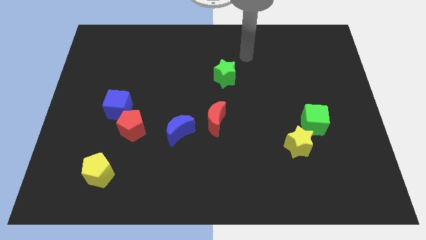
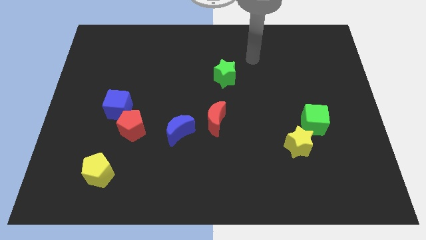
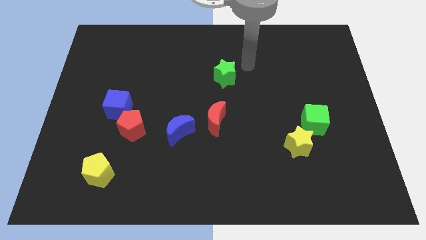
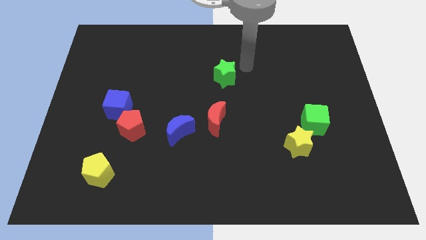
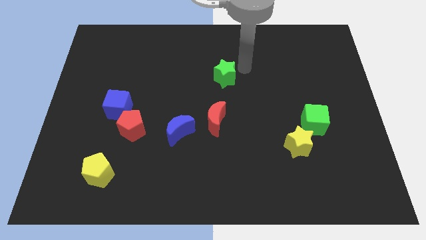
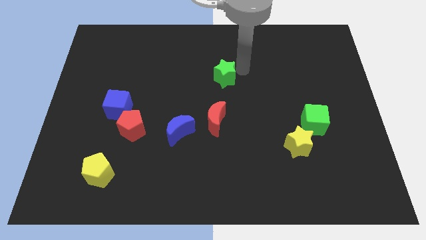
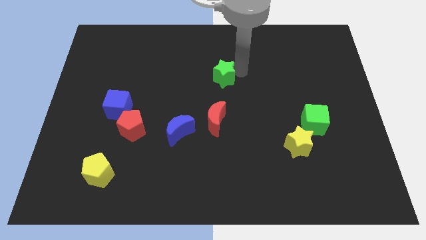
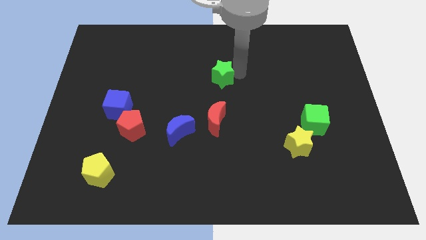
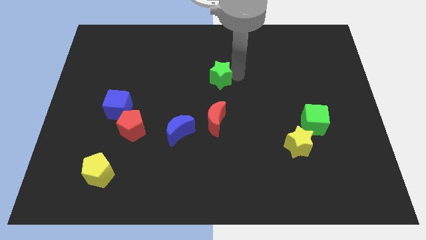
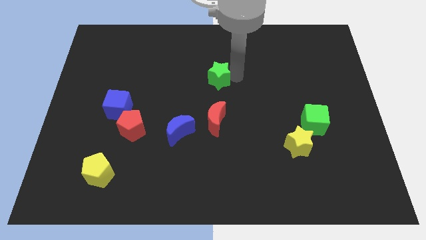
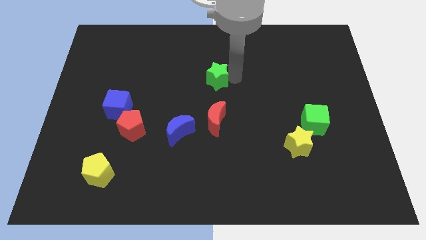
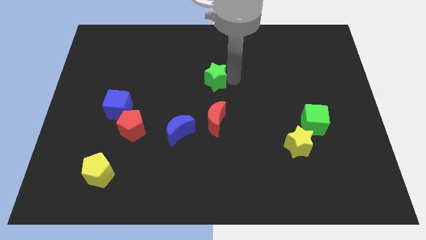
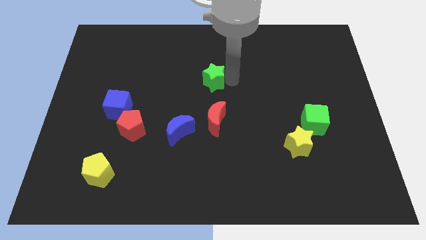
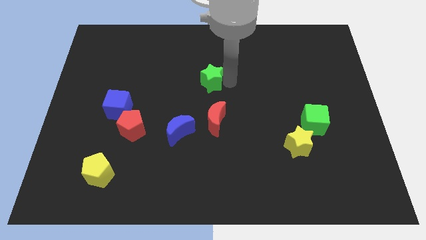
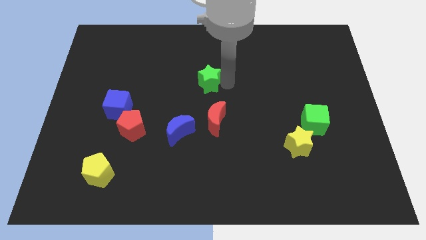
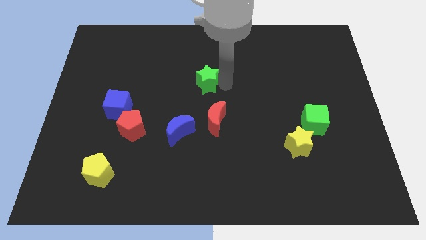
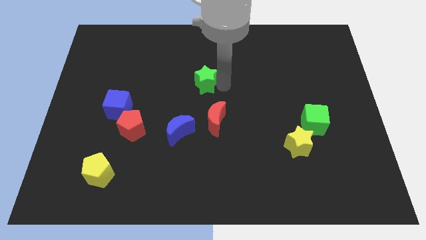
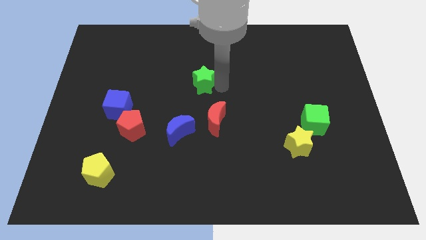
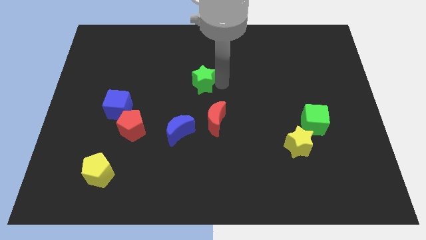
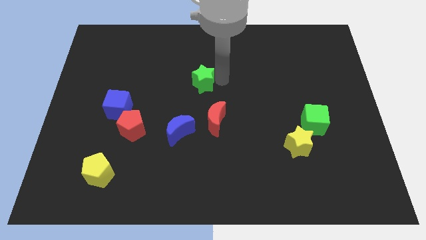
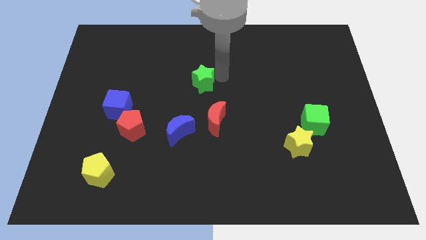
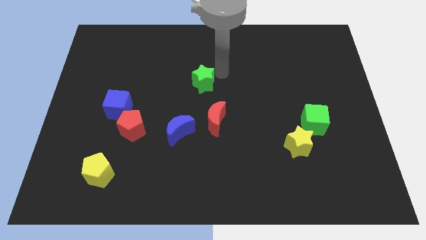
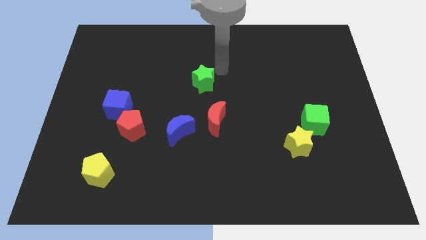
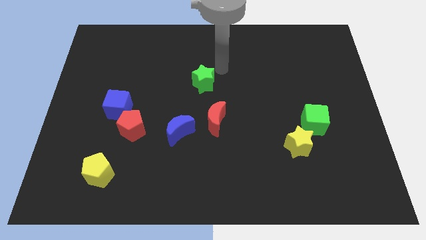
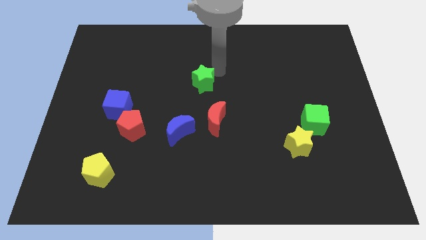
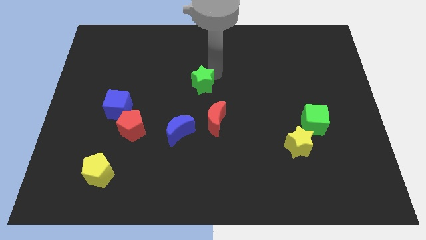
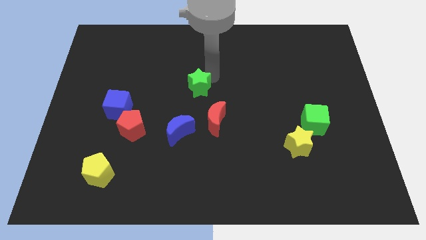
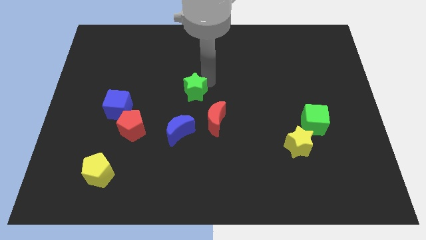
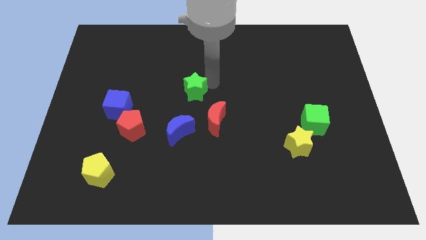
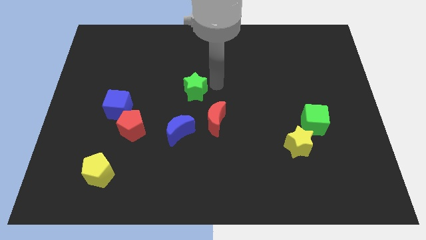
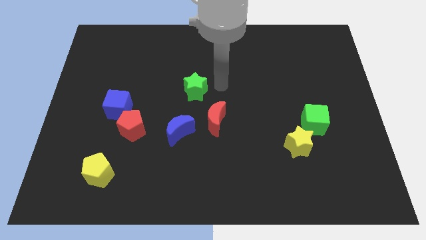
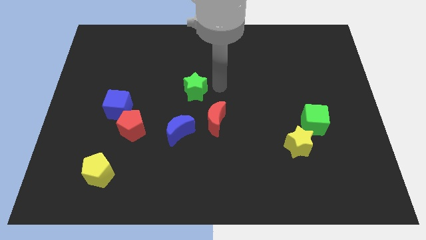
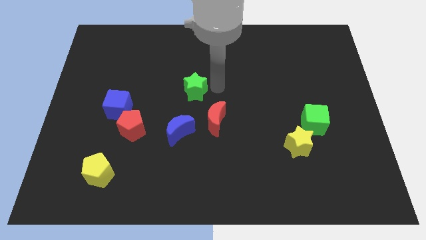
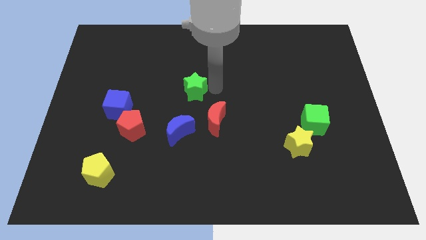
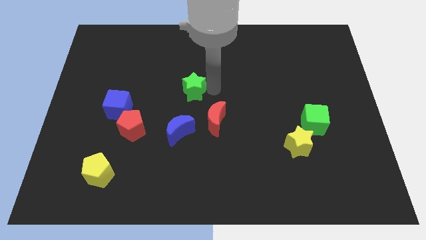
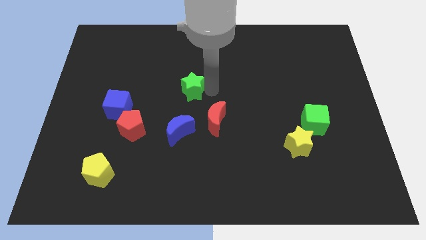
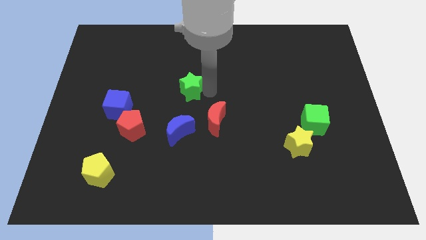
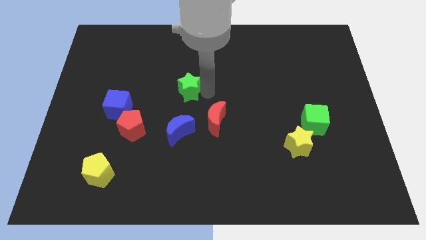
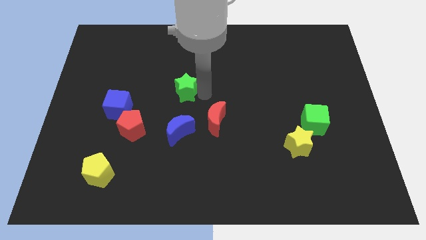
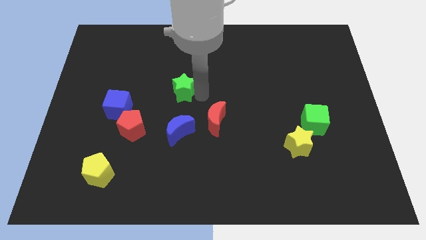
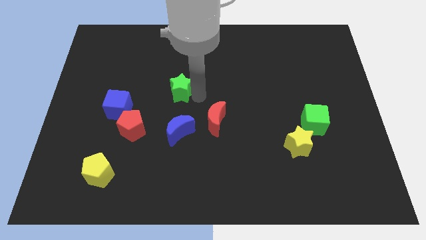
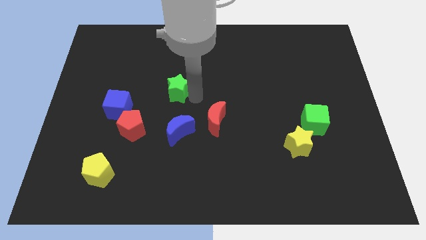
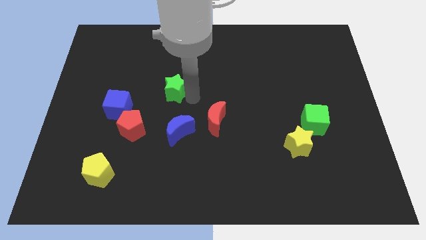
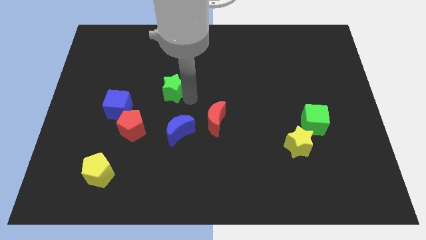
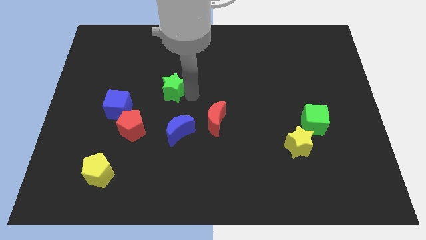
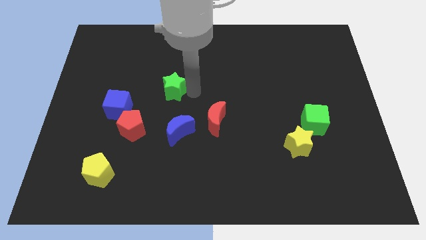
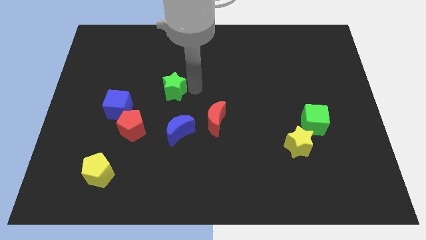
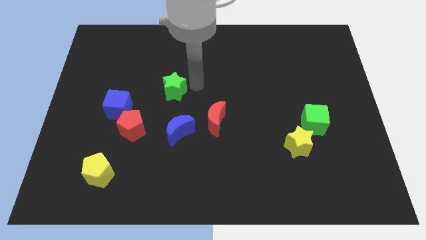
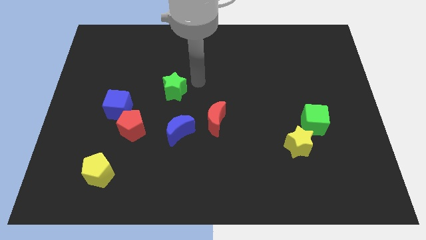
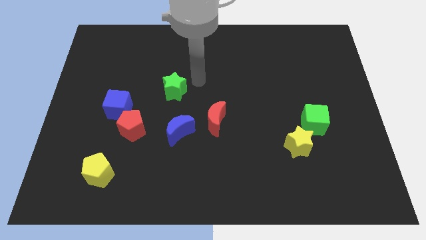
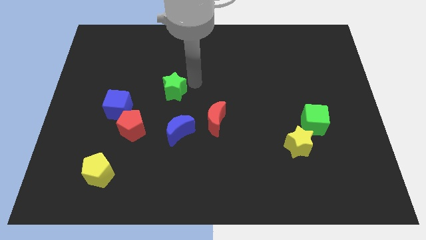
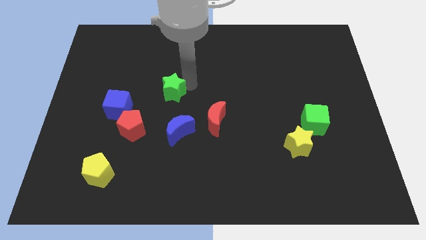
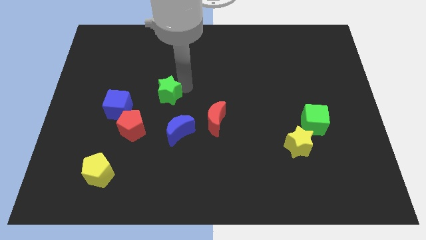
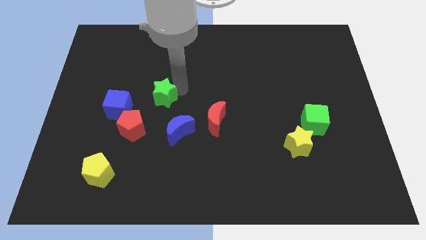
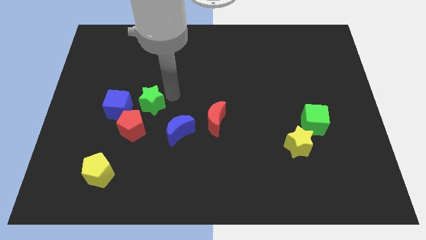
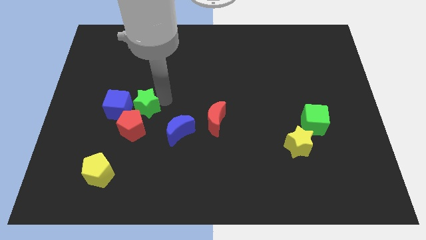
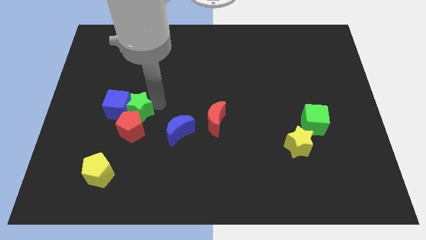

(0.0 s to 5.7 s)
push the green star towards the blue cube

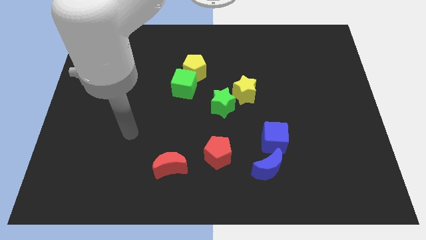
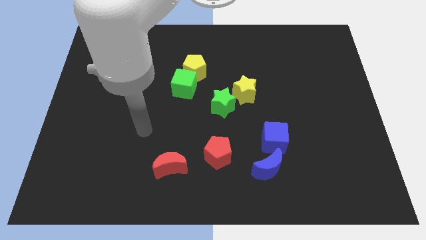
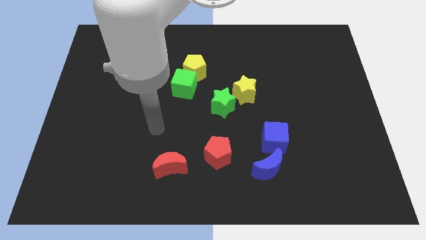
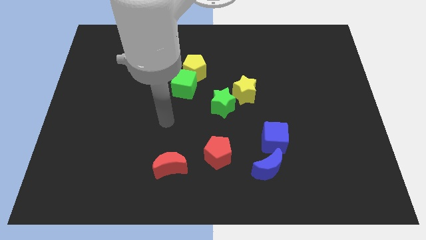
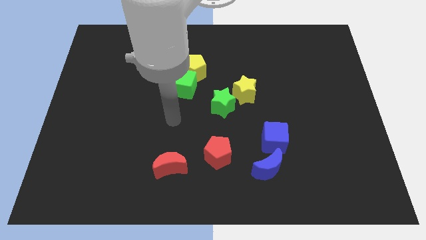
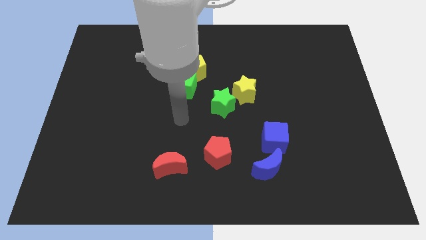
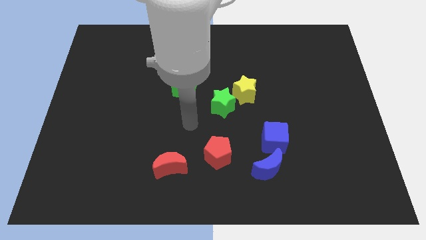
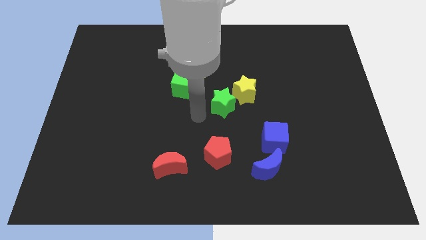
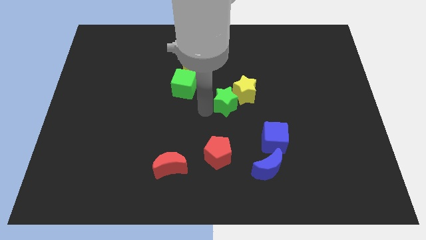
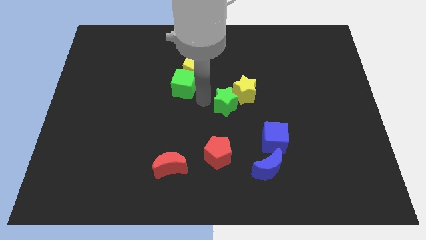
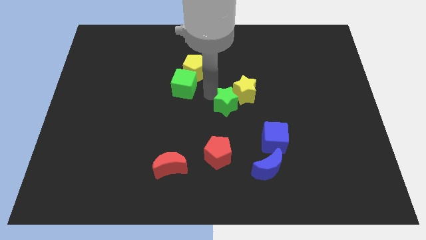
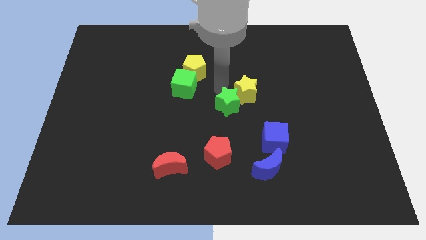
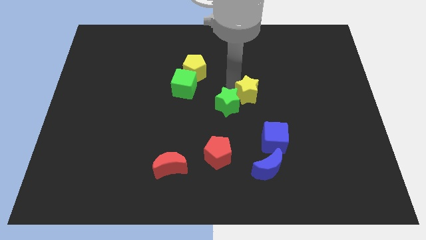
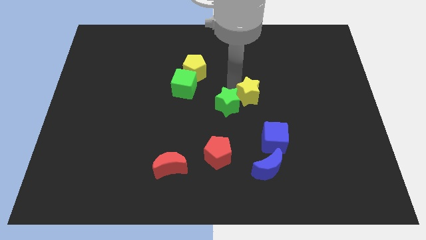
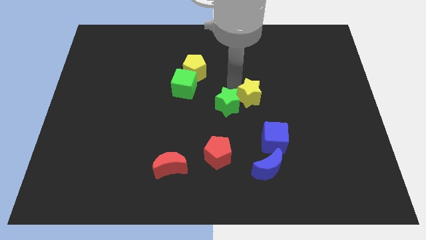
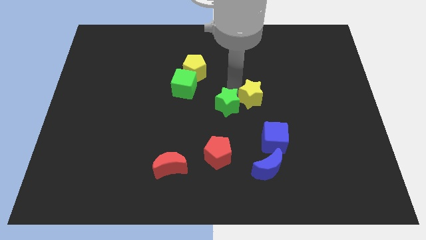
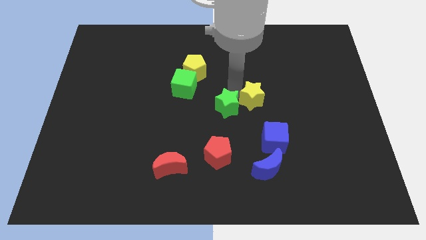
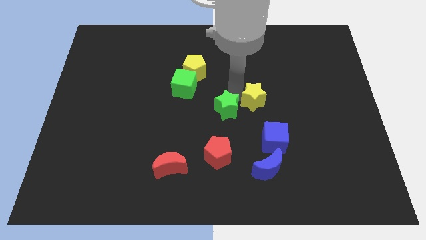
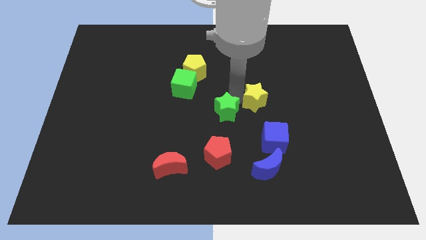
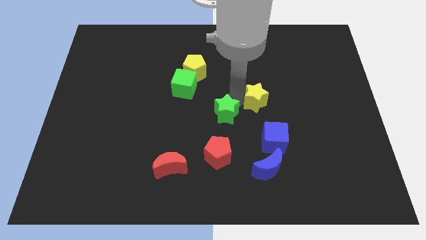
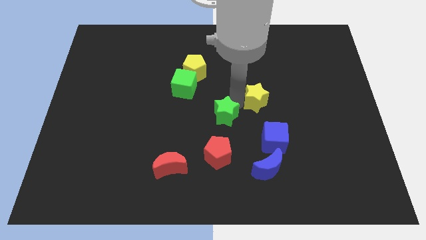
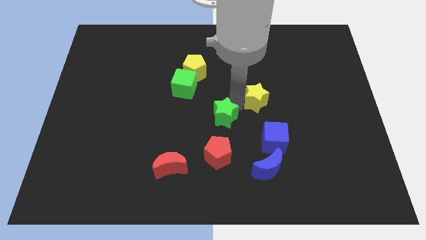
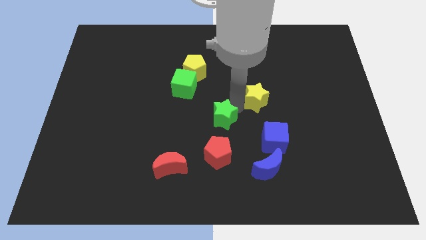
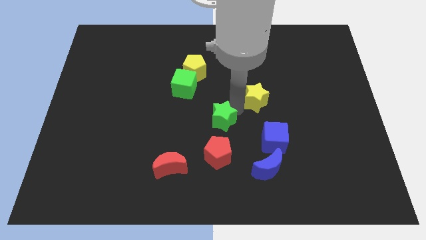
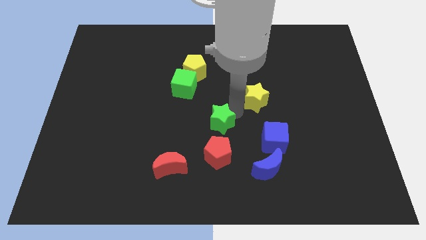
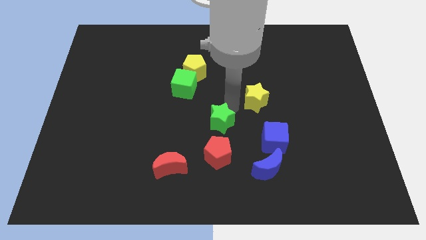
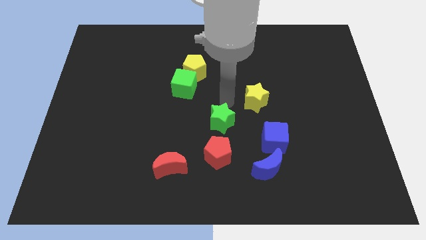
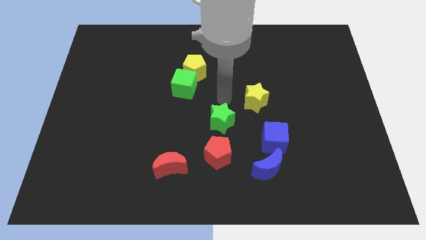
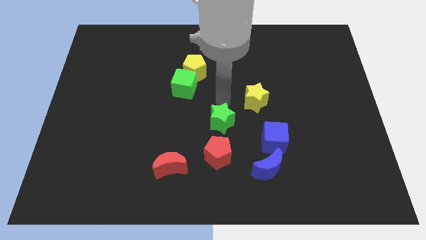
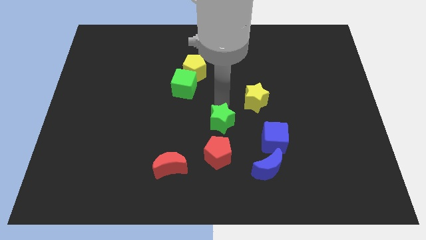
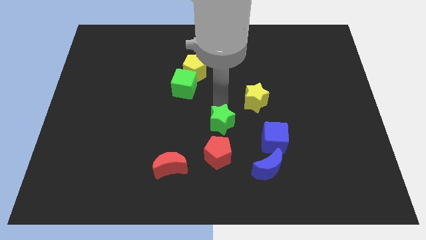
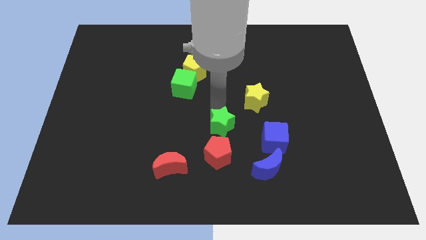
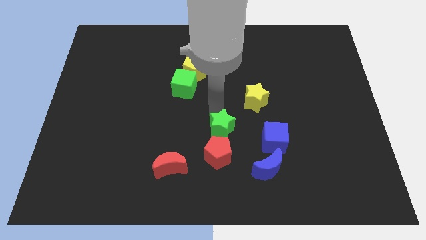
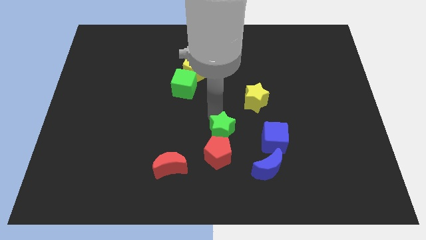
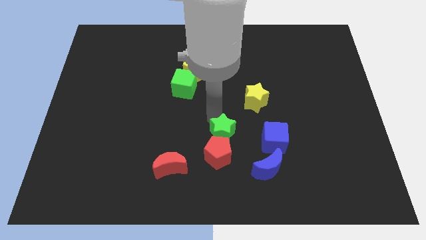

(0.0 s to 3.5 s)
put the green star next to the red pentagon
